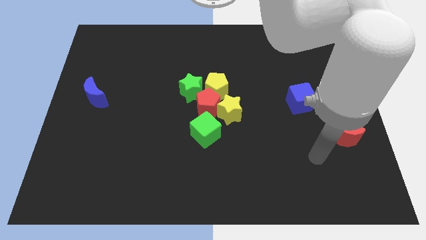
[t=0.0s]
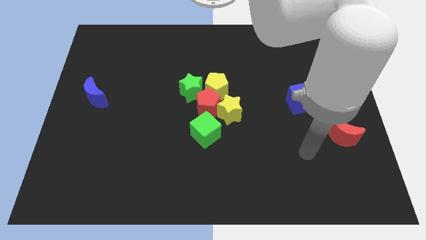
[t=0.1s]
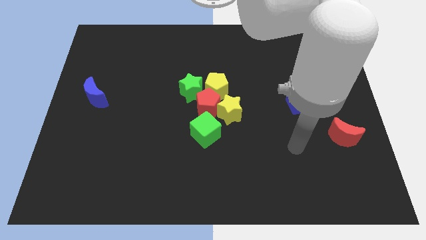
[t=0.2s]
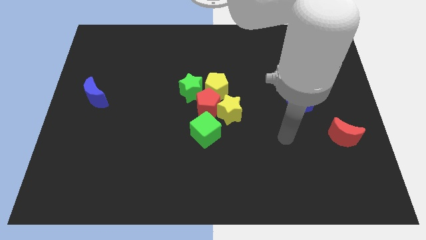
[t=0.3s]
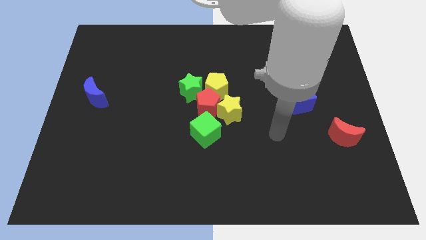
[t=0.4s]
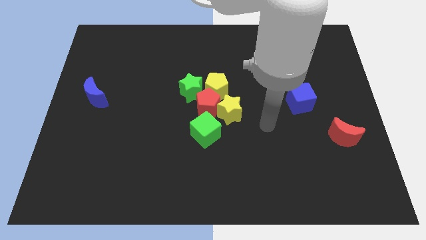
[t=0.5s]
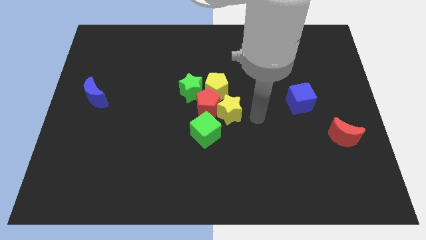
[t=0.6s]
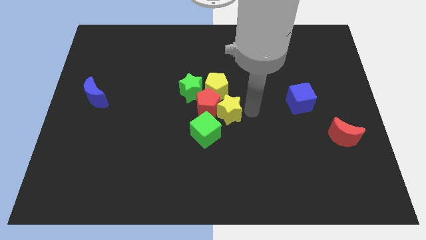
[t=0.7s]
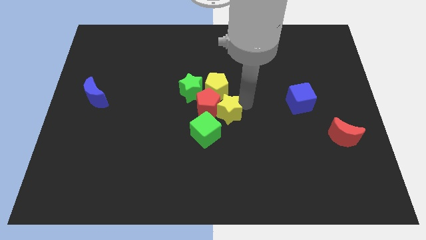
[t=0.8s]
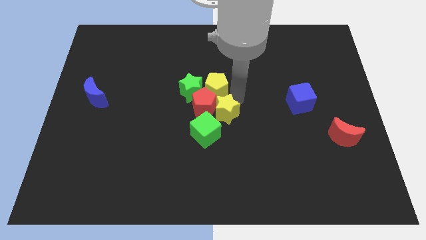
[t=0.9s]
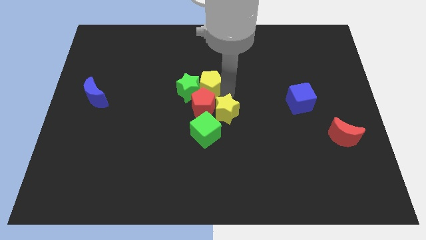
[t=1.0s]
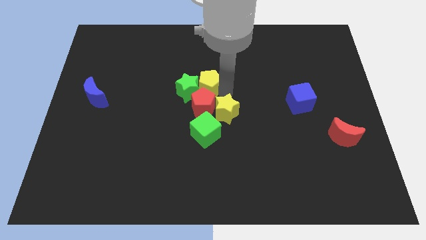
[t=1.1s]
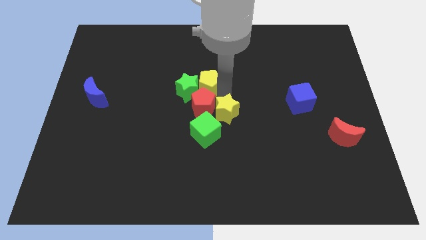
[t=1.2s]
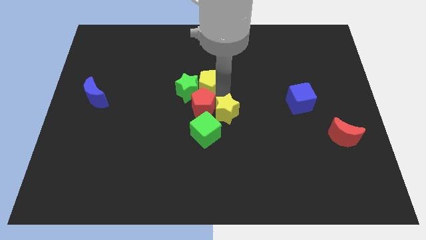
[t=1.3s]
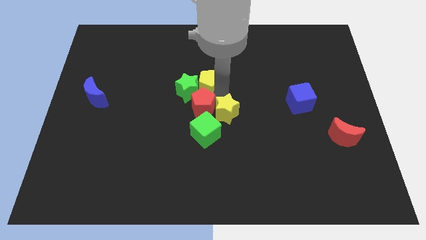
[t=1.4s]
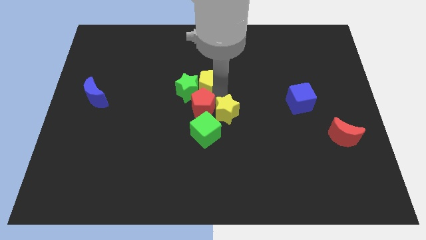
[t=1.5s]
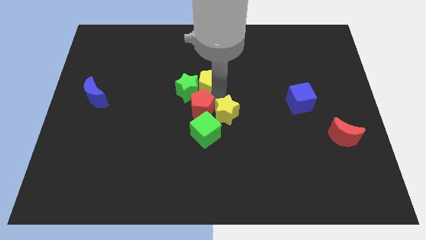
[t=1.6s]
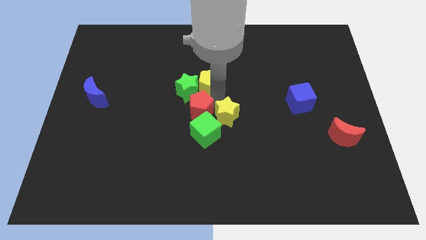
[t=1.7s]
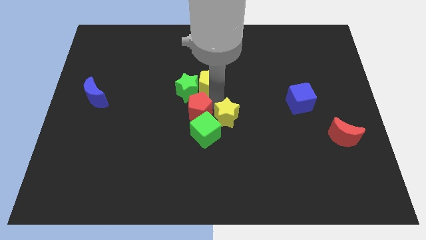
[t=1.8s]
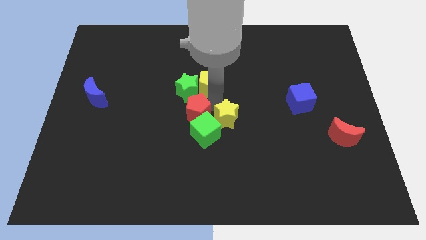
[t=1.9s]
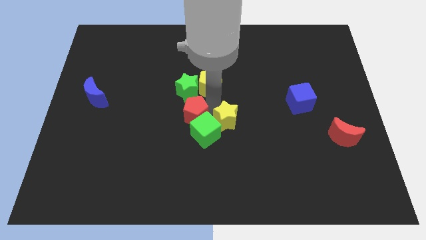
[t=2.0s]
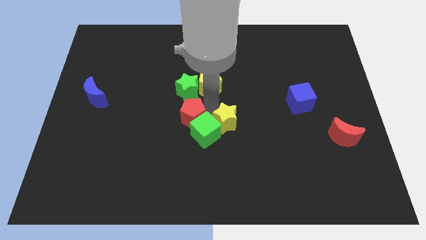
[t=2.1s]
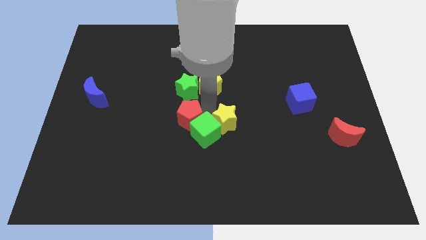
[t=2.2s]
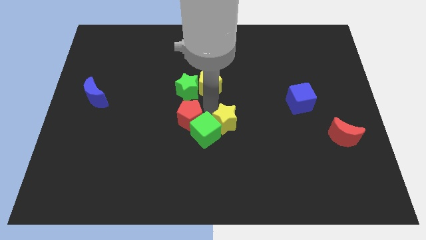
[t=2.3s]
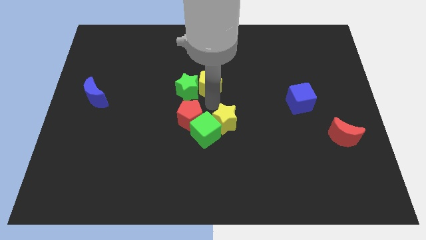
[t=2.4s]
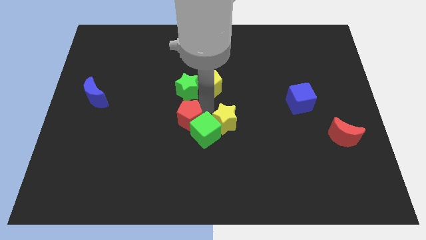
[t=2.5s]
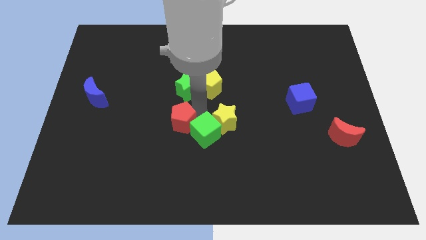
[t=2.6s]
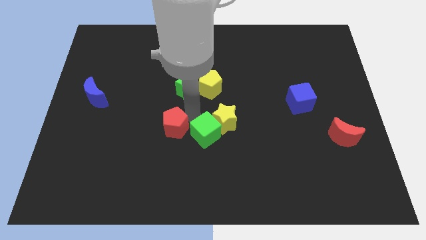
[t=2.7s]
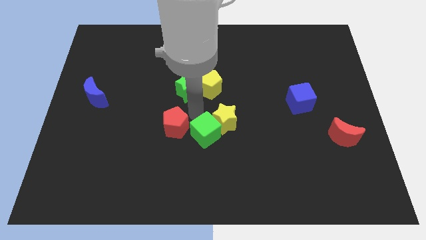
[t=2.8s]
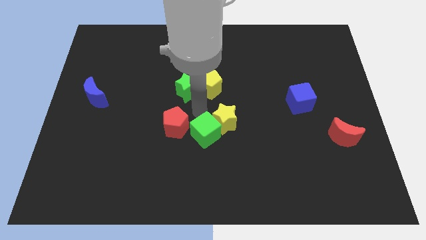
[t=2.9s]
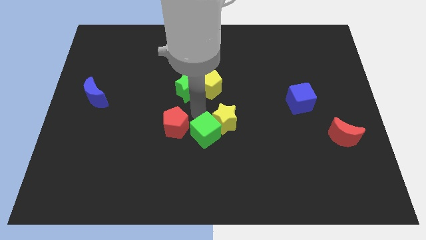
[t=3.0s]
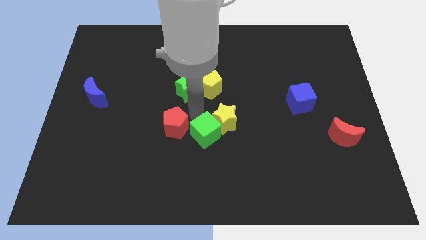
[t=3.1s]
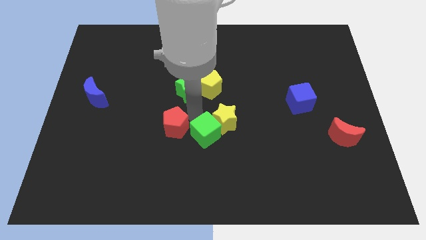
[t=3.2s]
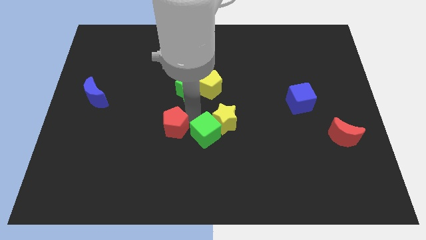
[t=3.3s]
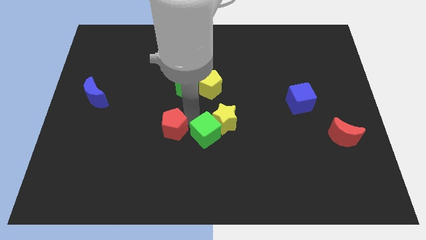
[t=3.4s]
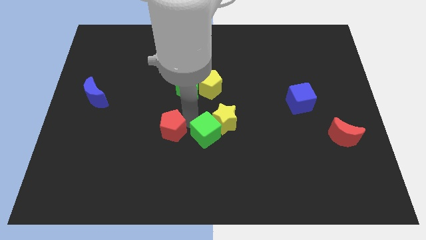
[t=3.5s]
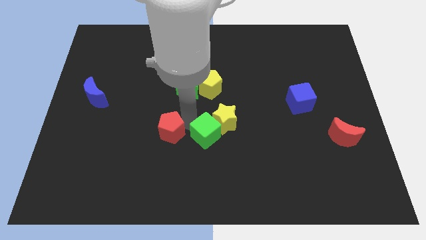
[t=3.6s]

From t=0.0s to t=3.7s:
move the red pentagon away from the group

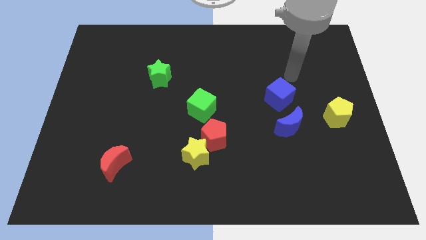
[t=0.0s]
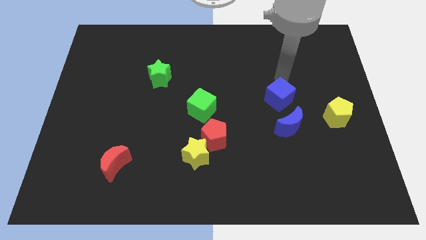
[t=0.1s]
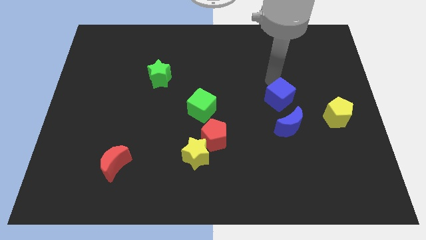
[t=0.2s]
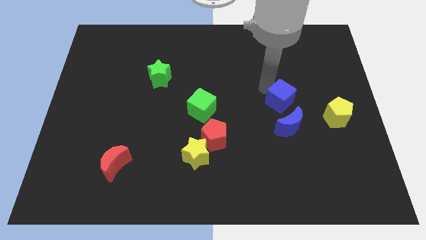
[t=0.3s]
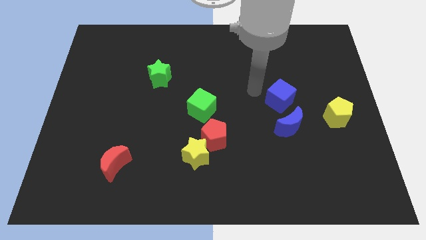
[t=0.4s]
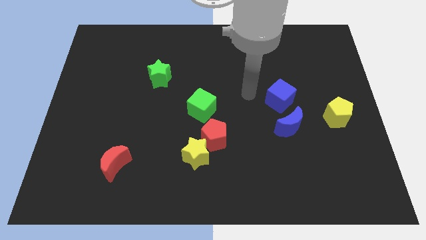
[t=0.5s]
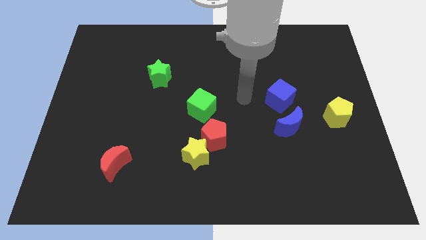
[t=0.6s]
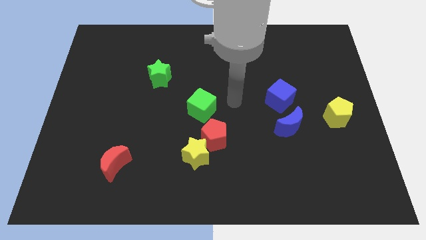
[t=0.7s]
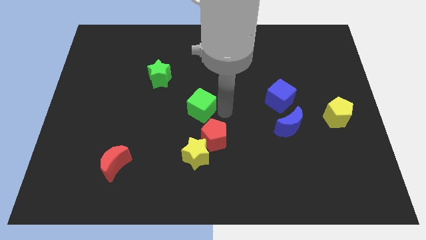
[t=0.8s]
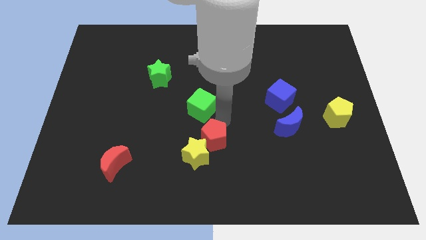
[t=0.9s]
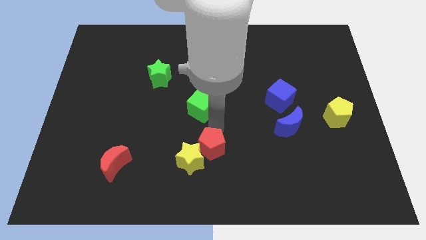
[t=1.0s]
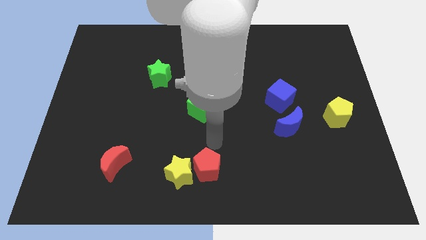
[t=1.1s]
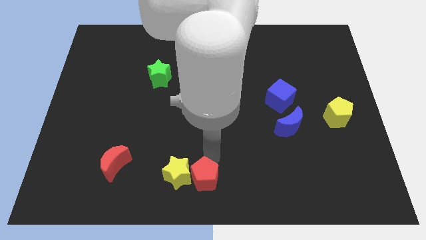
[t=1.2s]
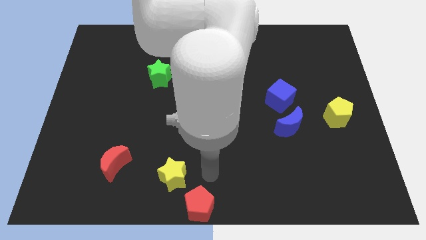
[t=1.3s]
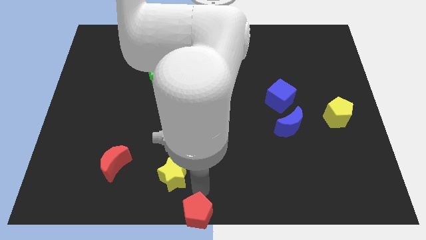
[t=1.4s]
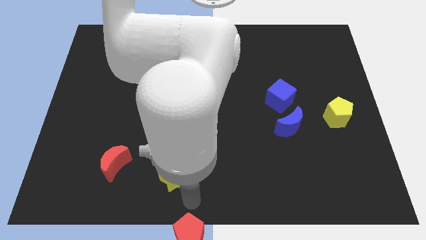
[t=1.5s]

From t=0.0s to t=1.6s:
move the yellow star away from the red pentagon

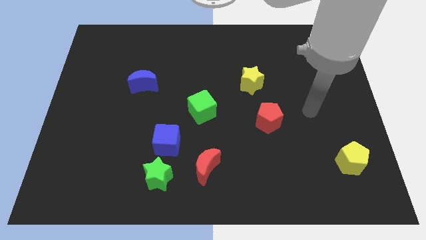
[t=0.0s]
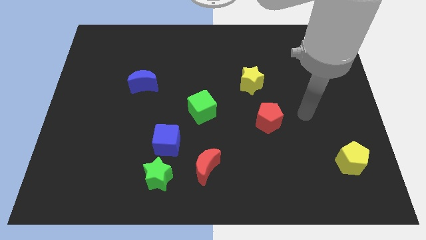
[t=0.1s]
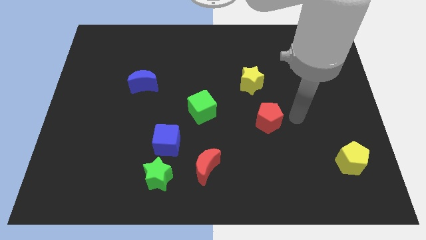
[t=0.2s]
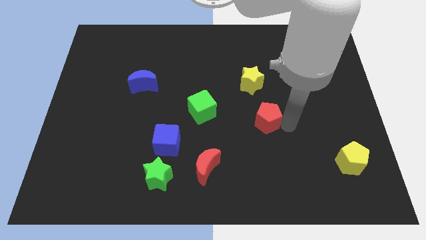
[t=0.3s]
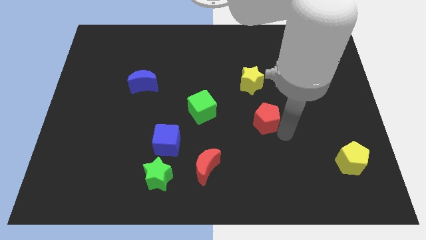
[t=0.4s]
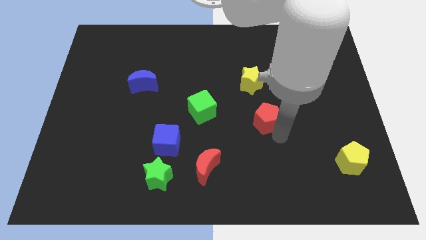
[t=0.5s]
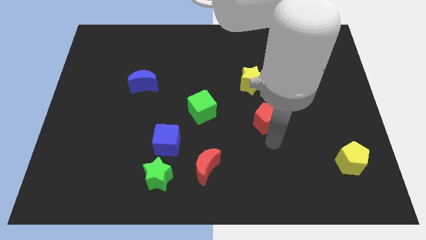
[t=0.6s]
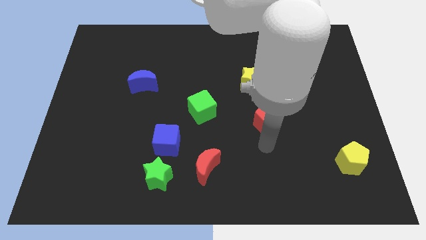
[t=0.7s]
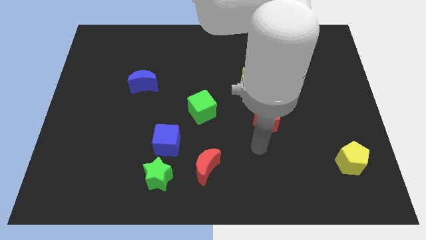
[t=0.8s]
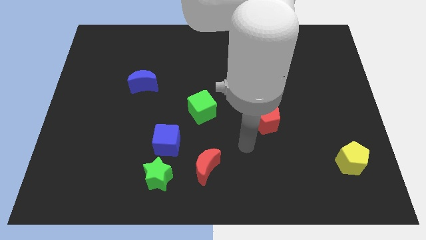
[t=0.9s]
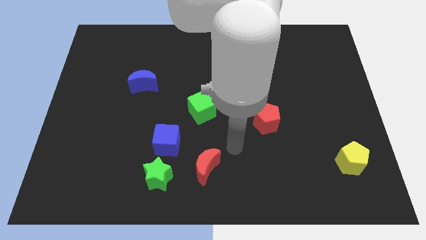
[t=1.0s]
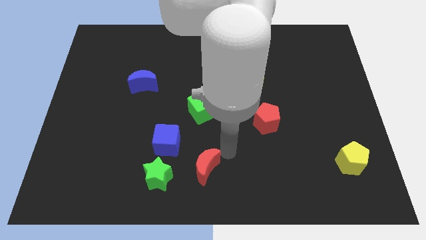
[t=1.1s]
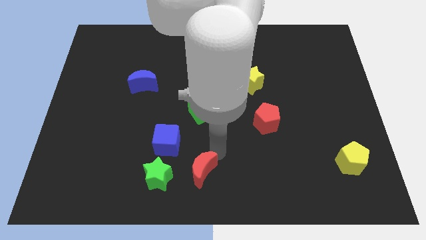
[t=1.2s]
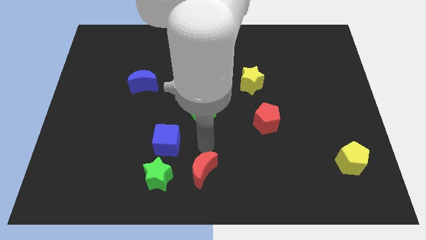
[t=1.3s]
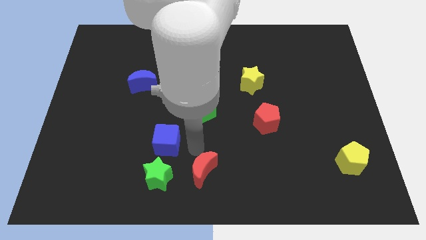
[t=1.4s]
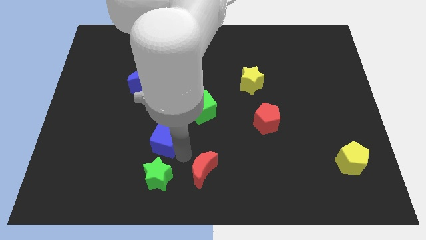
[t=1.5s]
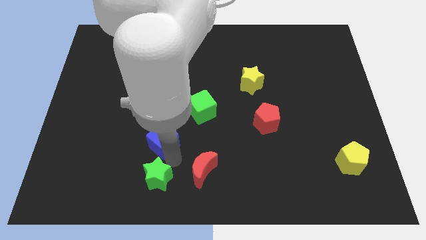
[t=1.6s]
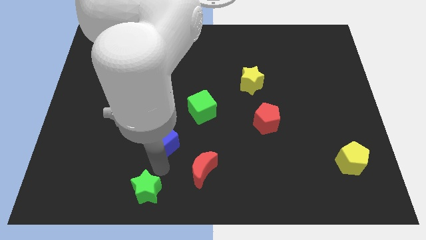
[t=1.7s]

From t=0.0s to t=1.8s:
move the blue cube away from the green star

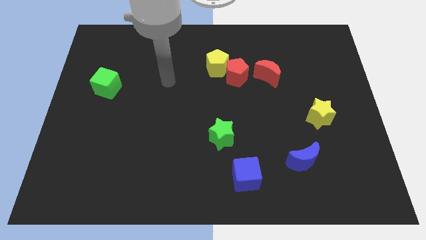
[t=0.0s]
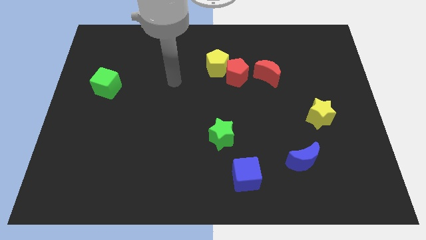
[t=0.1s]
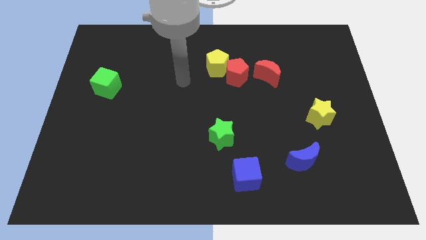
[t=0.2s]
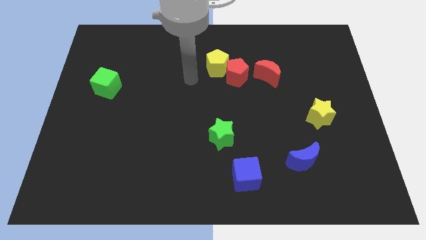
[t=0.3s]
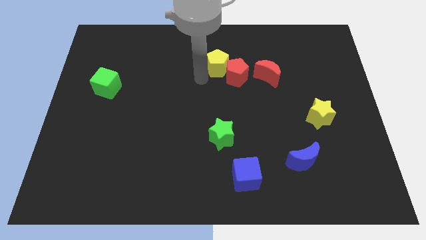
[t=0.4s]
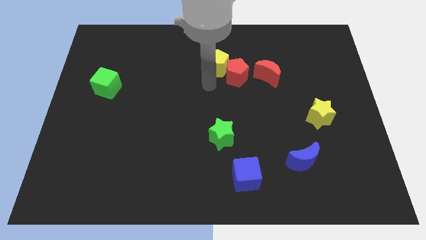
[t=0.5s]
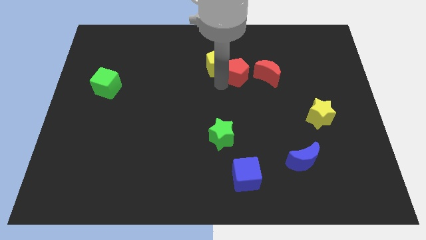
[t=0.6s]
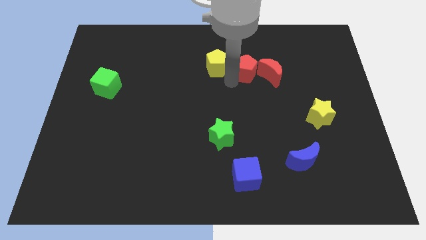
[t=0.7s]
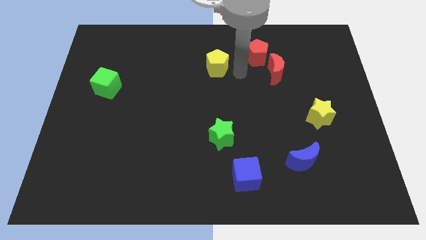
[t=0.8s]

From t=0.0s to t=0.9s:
pull the yellow pentagon apart from the red pentagon

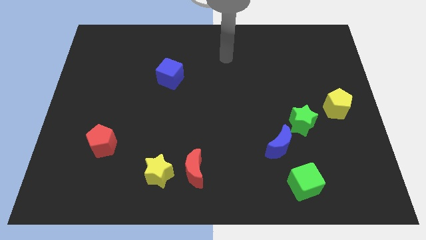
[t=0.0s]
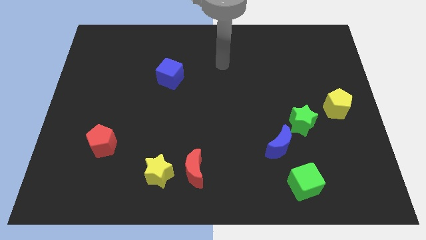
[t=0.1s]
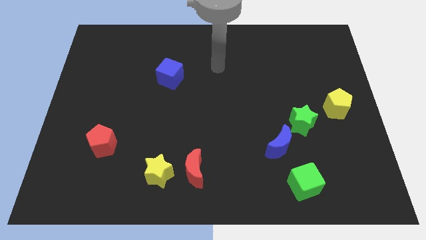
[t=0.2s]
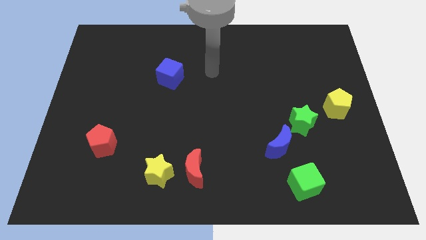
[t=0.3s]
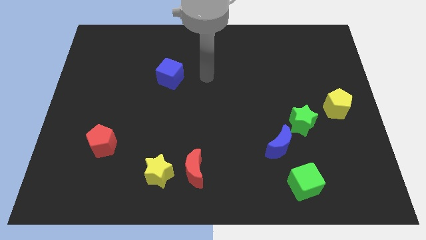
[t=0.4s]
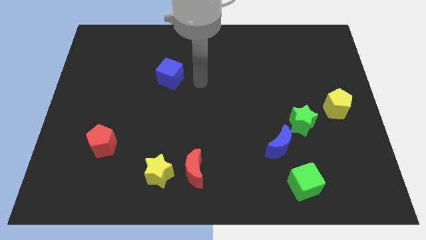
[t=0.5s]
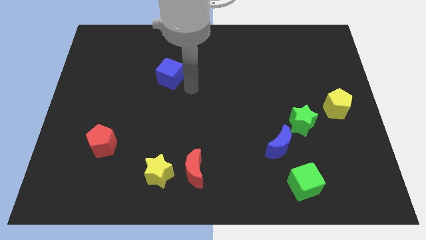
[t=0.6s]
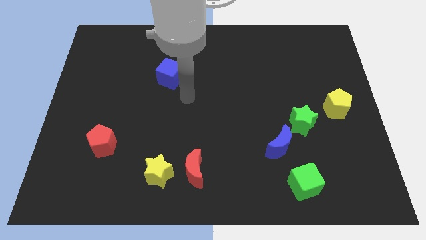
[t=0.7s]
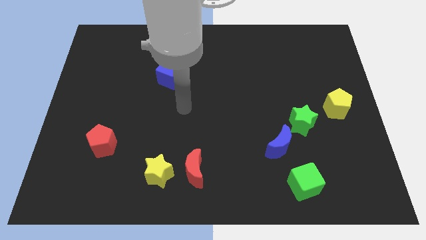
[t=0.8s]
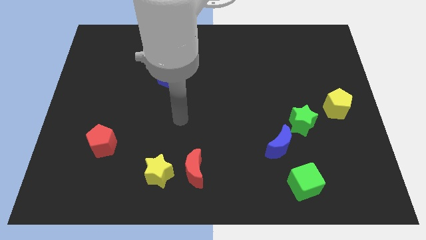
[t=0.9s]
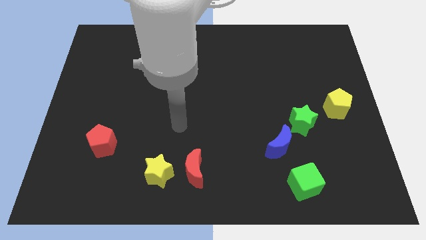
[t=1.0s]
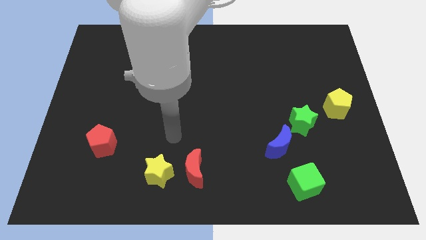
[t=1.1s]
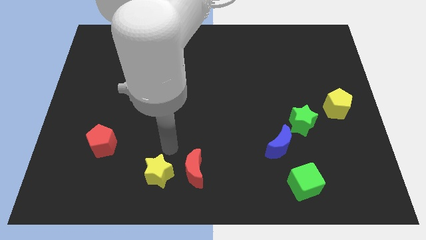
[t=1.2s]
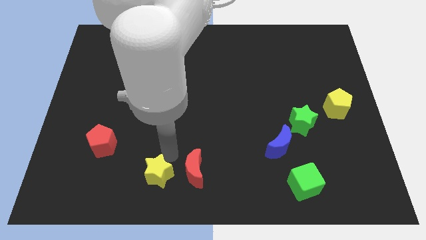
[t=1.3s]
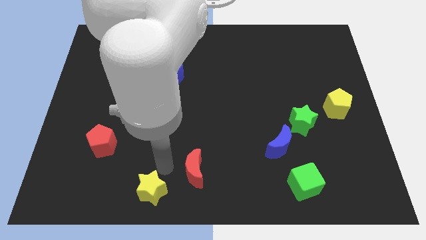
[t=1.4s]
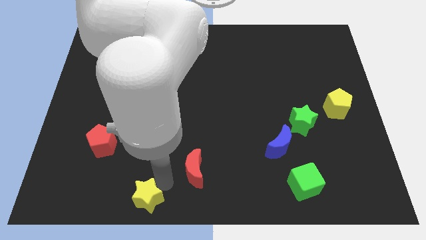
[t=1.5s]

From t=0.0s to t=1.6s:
pull the red moon apart from the yellow star
